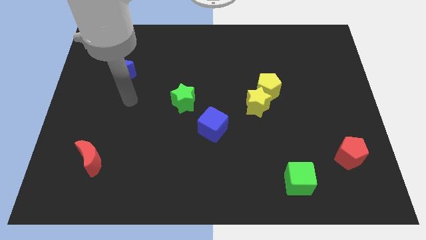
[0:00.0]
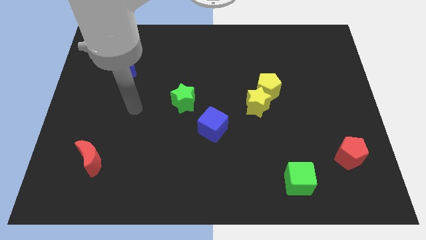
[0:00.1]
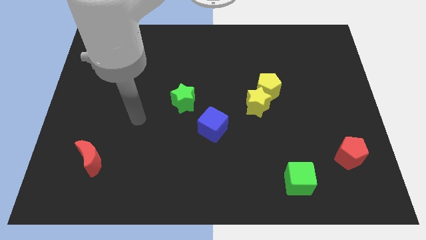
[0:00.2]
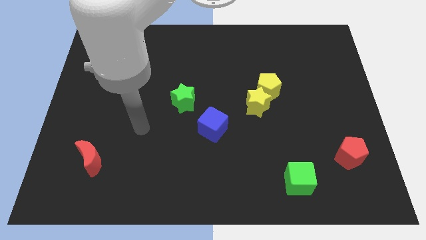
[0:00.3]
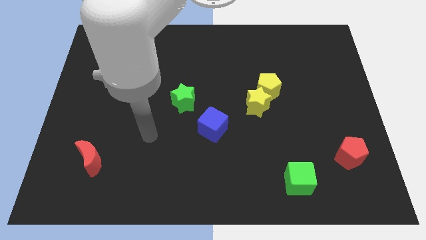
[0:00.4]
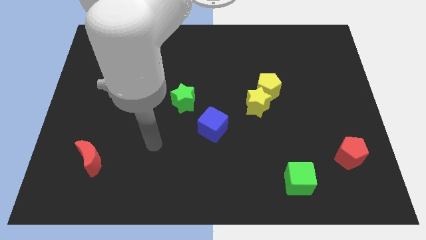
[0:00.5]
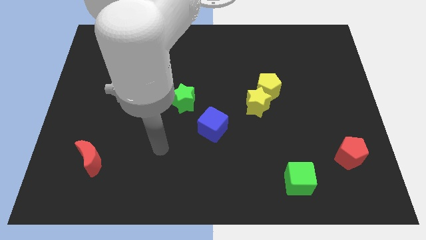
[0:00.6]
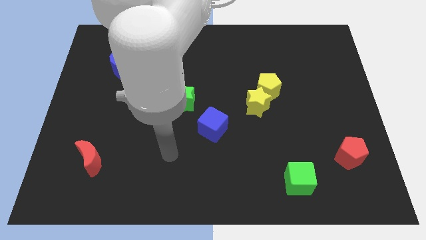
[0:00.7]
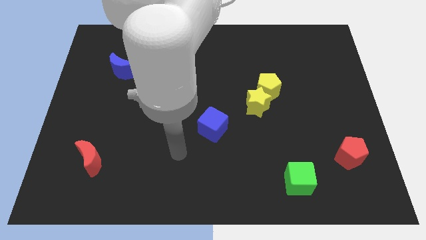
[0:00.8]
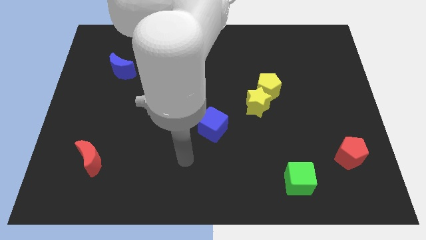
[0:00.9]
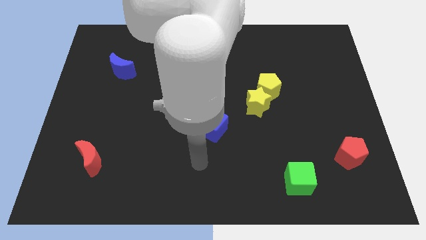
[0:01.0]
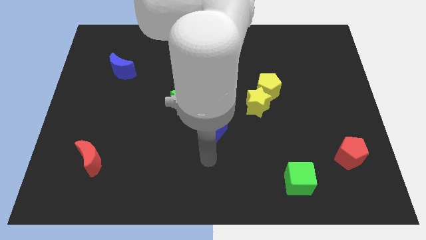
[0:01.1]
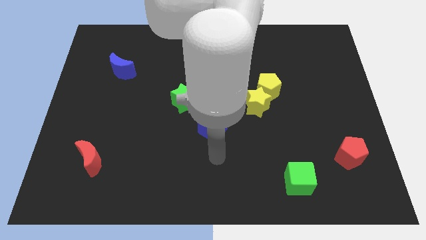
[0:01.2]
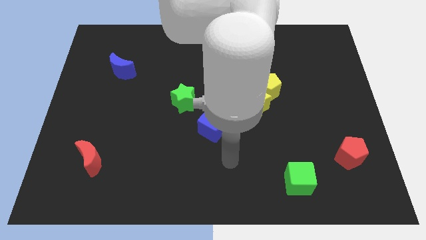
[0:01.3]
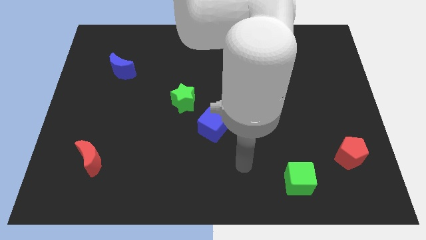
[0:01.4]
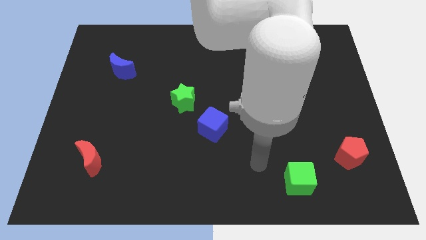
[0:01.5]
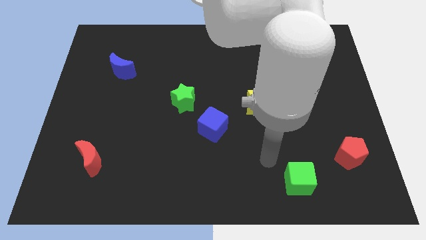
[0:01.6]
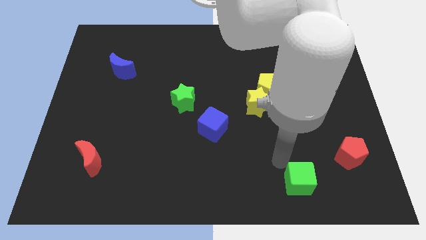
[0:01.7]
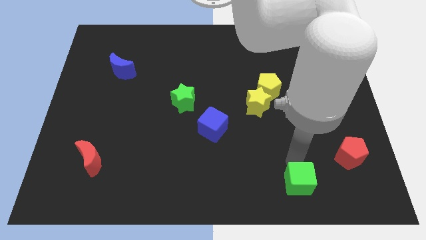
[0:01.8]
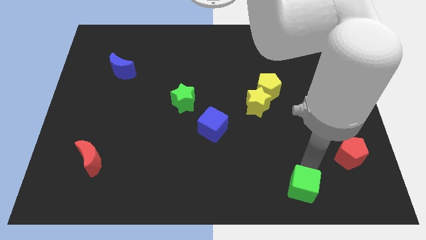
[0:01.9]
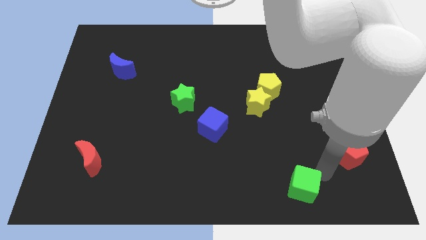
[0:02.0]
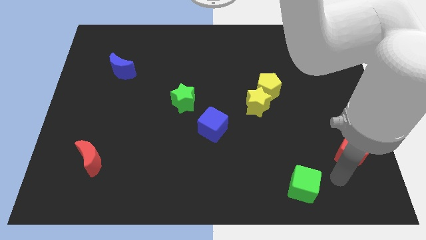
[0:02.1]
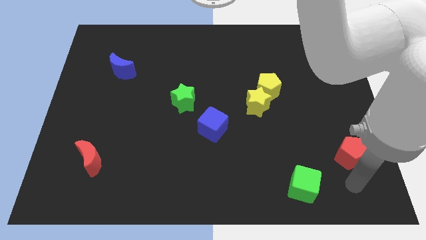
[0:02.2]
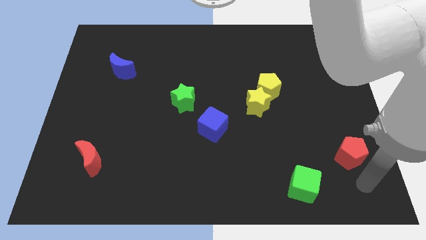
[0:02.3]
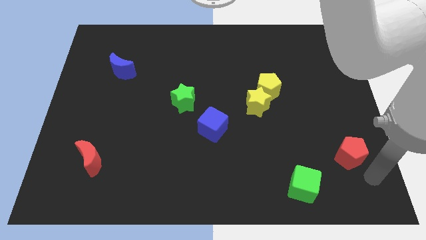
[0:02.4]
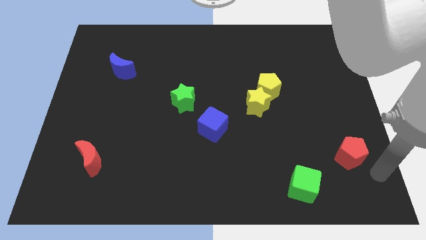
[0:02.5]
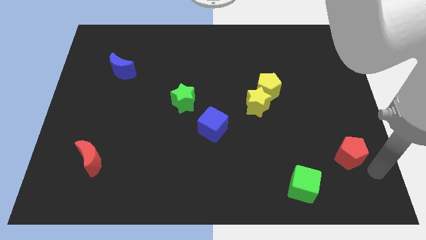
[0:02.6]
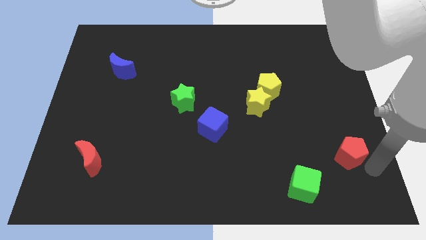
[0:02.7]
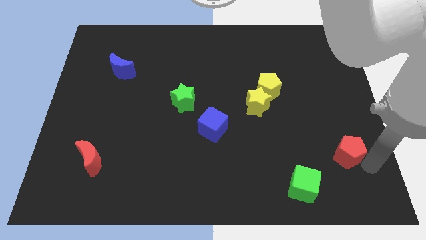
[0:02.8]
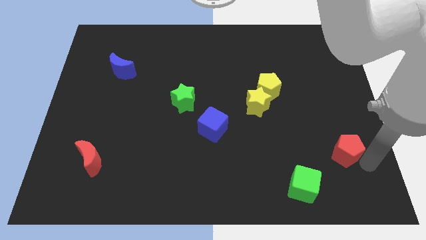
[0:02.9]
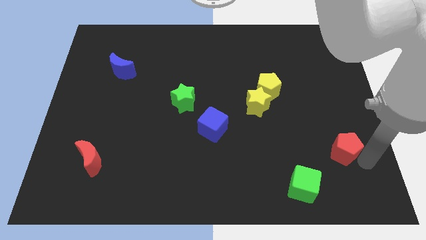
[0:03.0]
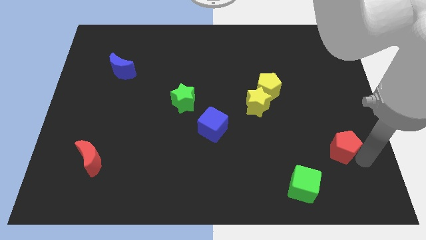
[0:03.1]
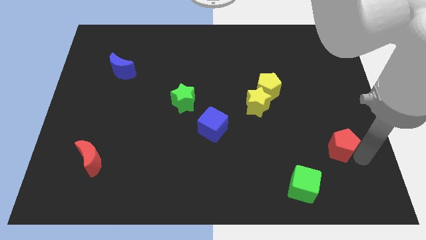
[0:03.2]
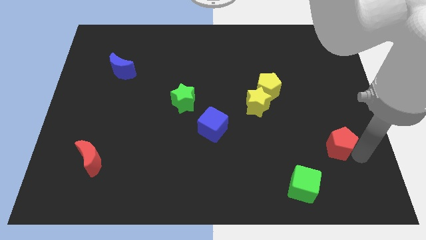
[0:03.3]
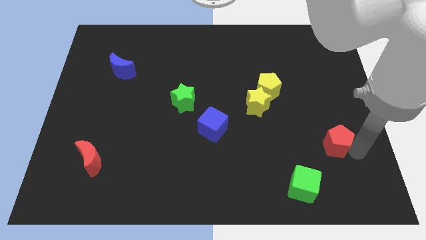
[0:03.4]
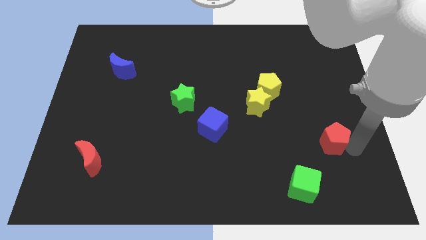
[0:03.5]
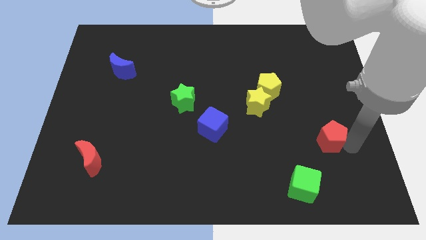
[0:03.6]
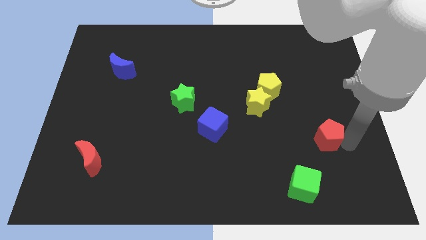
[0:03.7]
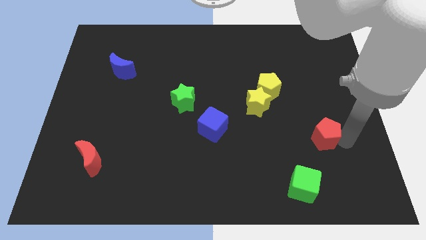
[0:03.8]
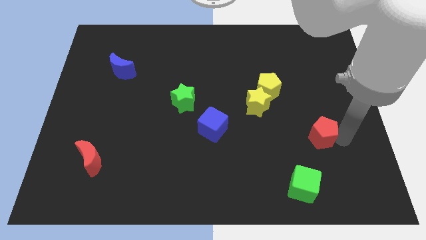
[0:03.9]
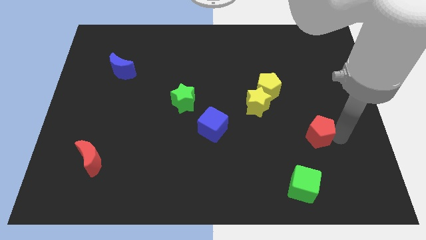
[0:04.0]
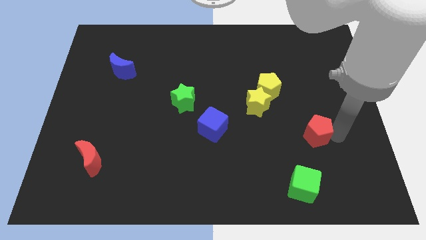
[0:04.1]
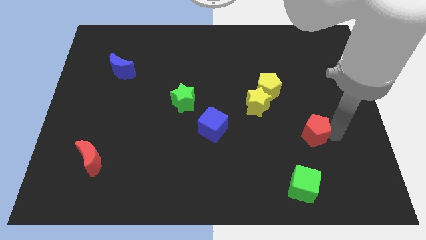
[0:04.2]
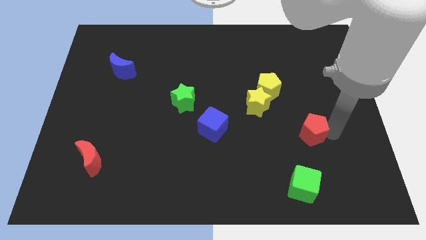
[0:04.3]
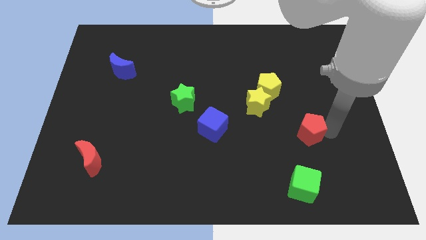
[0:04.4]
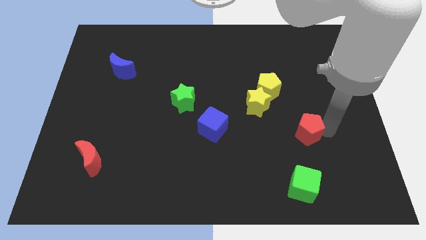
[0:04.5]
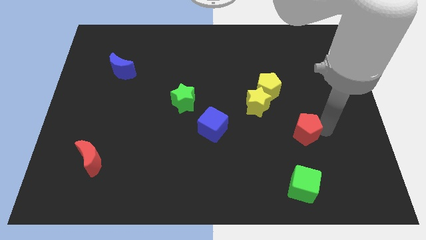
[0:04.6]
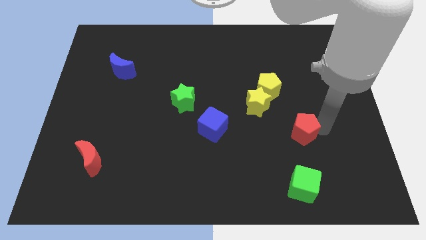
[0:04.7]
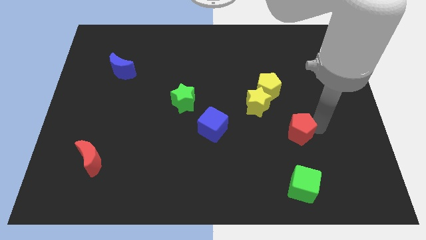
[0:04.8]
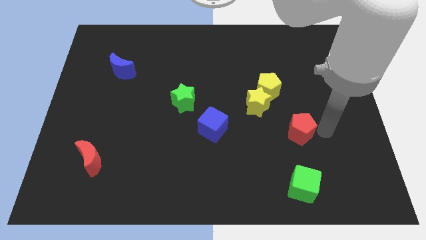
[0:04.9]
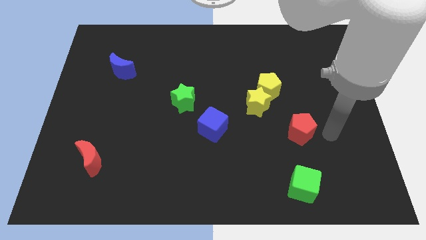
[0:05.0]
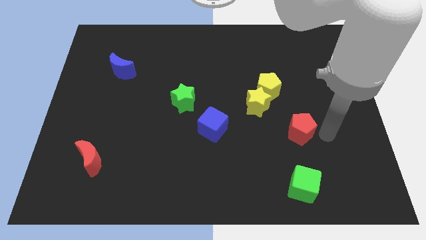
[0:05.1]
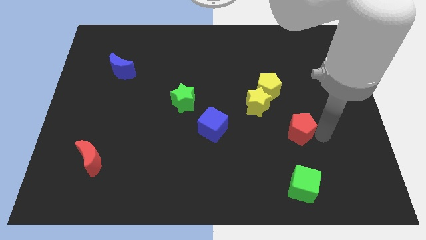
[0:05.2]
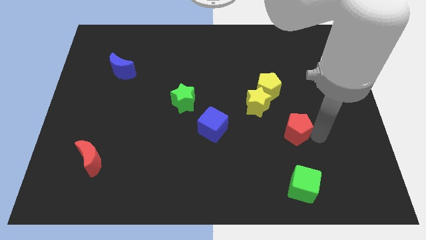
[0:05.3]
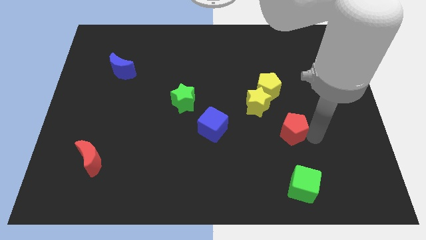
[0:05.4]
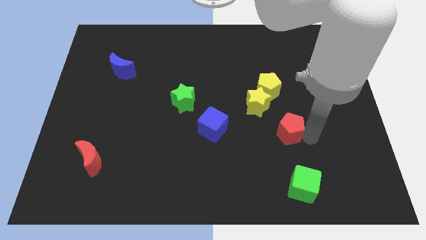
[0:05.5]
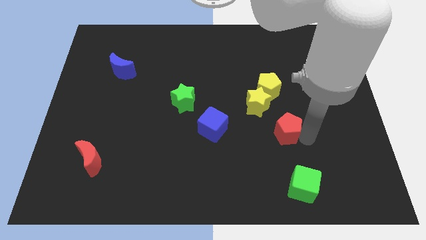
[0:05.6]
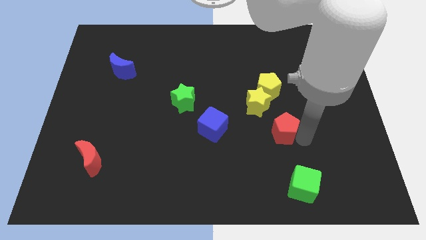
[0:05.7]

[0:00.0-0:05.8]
put the red pentagon to the right side of the blue cube

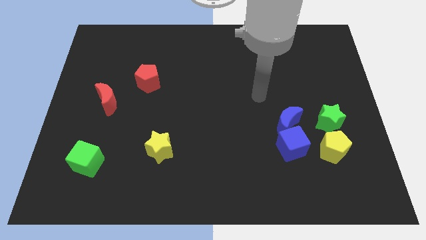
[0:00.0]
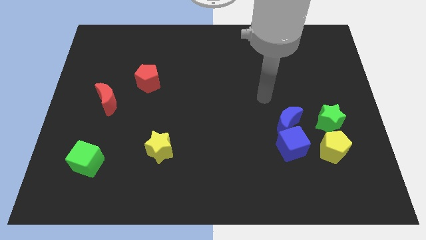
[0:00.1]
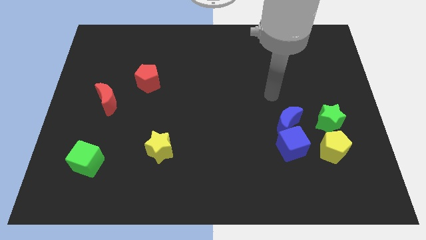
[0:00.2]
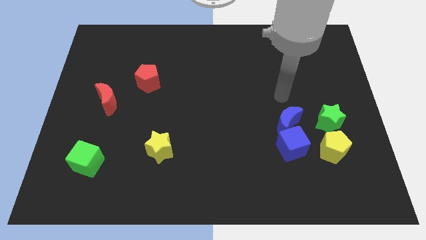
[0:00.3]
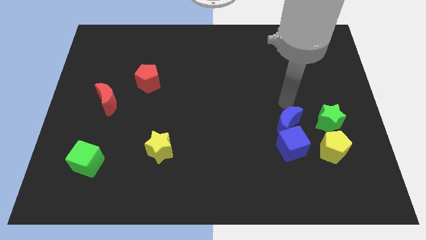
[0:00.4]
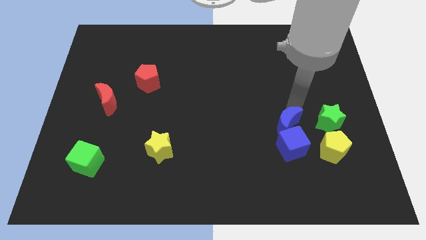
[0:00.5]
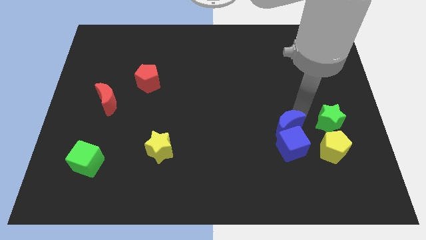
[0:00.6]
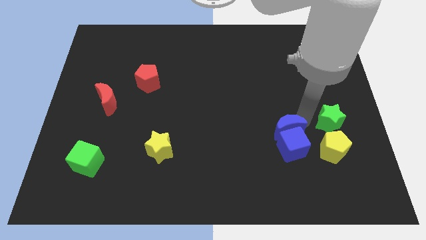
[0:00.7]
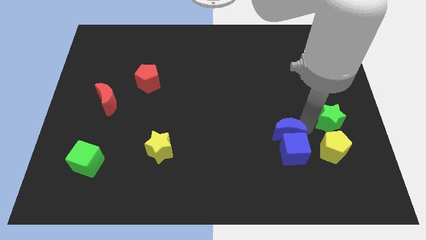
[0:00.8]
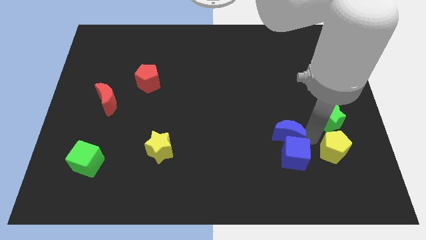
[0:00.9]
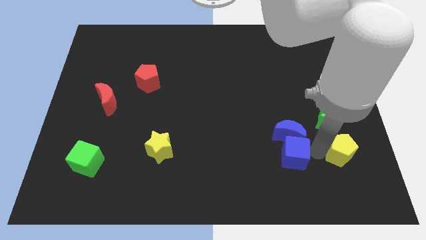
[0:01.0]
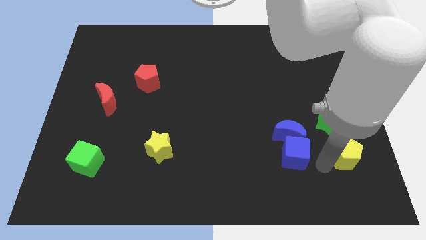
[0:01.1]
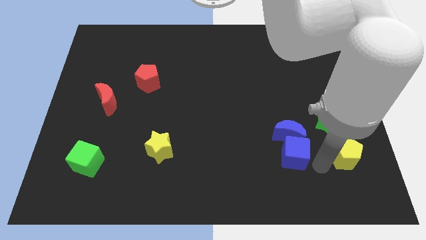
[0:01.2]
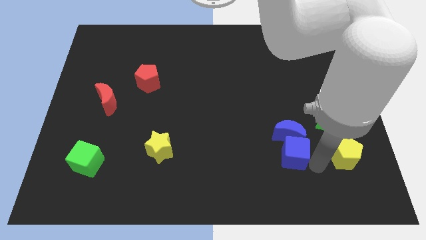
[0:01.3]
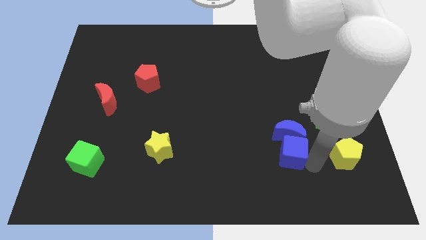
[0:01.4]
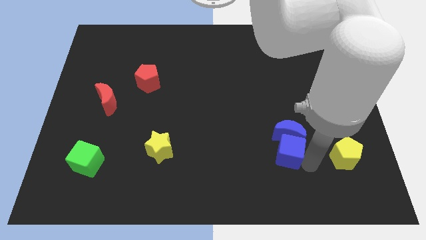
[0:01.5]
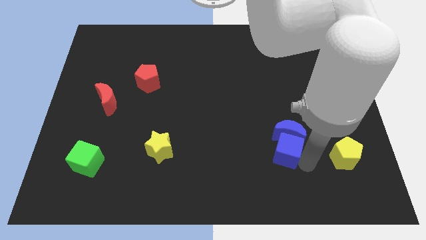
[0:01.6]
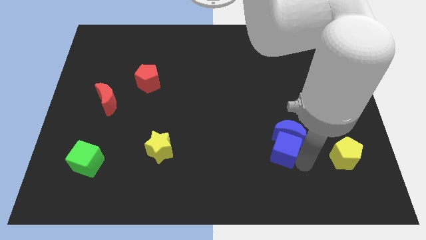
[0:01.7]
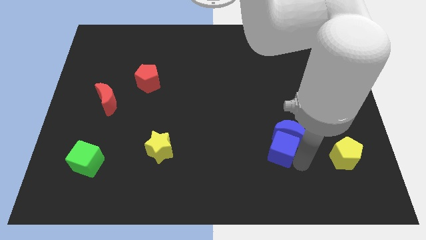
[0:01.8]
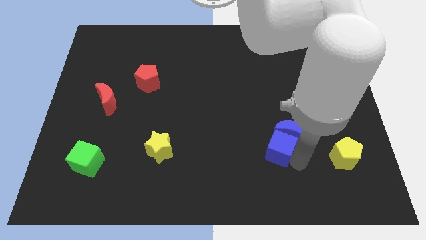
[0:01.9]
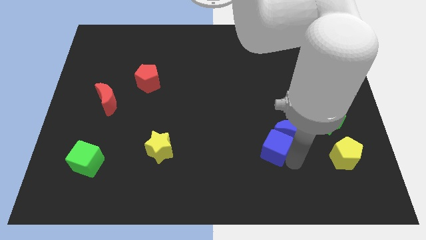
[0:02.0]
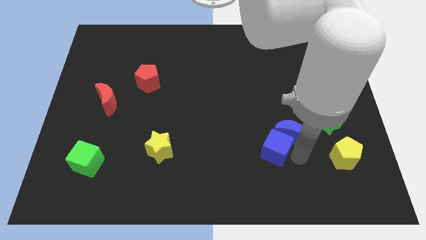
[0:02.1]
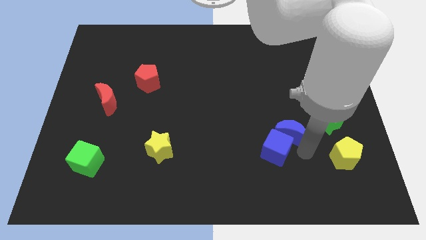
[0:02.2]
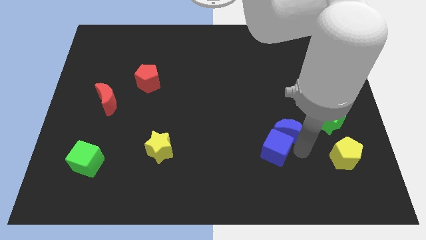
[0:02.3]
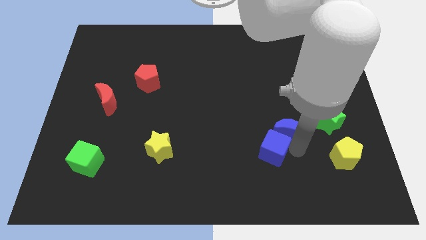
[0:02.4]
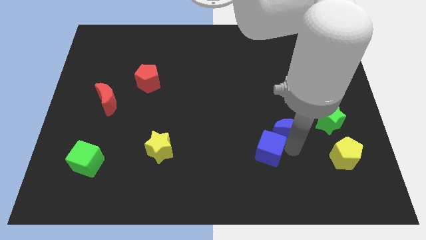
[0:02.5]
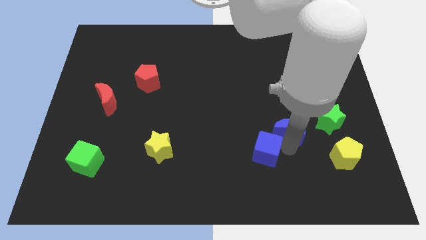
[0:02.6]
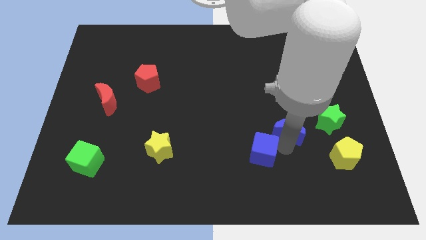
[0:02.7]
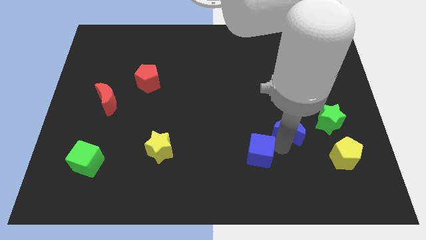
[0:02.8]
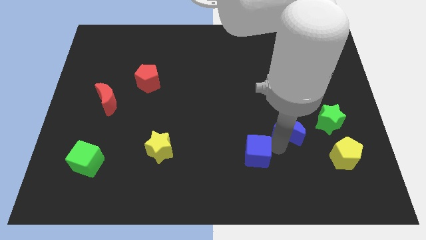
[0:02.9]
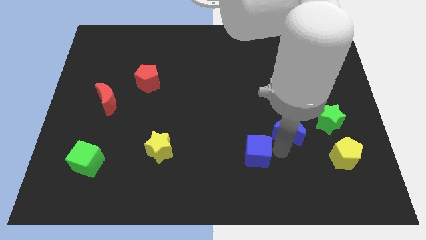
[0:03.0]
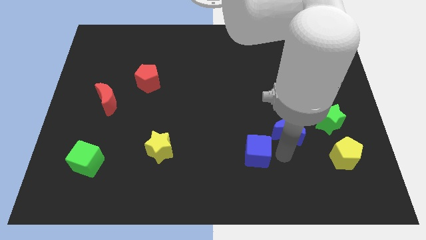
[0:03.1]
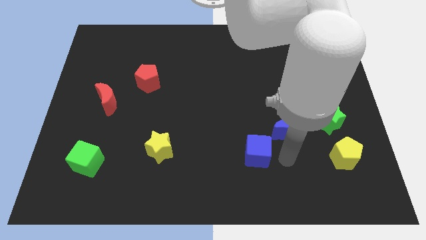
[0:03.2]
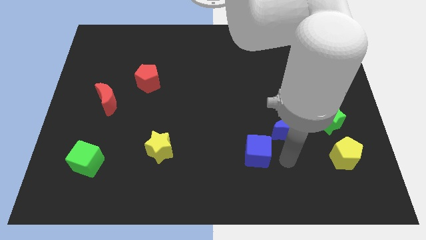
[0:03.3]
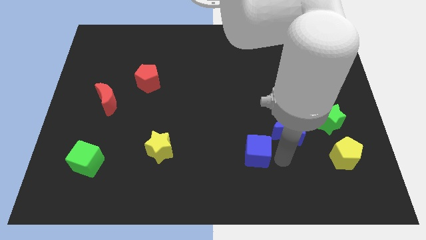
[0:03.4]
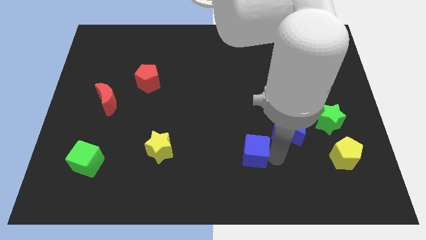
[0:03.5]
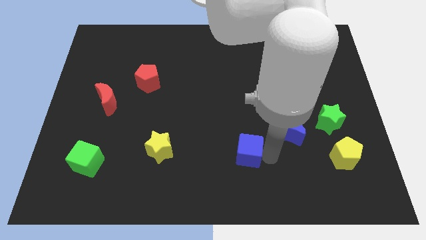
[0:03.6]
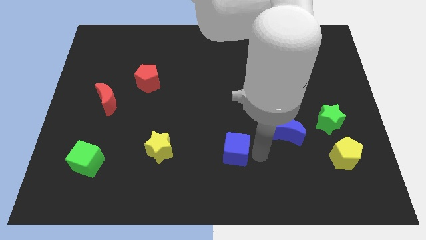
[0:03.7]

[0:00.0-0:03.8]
put the blue cube right of the yellow star
